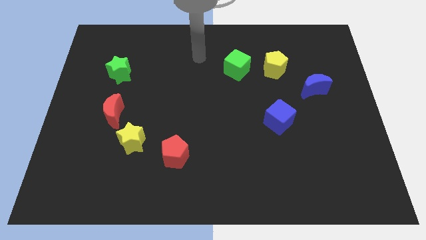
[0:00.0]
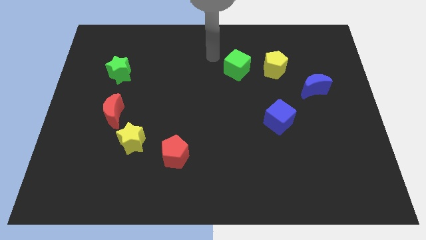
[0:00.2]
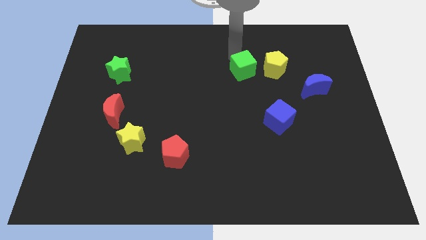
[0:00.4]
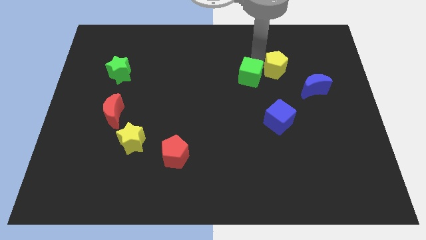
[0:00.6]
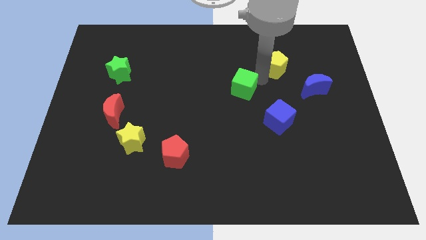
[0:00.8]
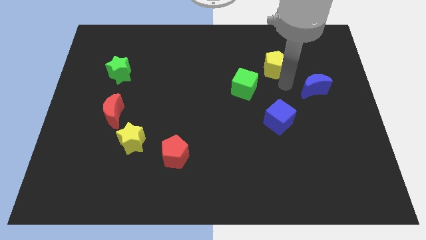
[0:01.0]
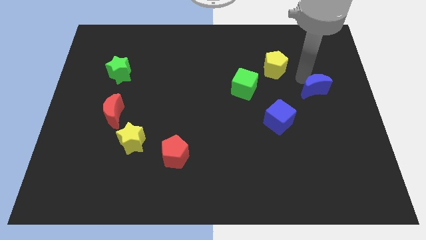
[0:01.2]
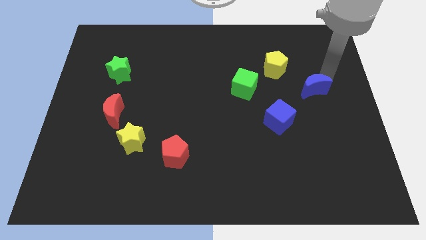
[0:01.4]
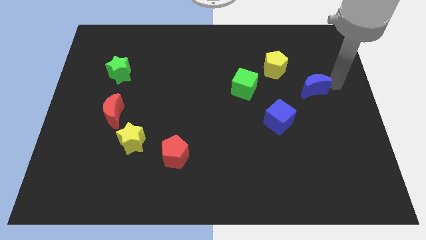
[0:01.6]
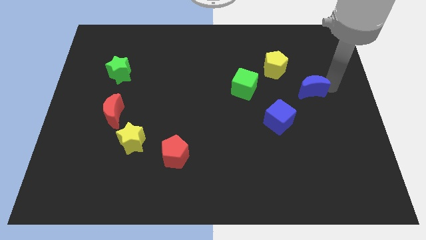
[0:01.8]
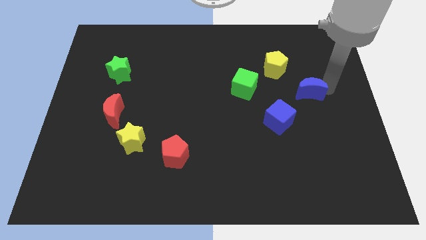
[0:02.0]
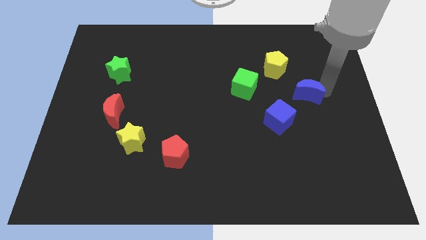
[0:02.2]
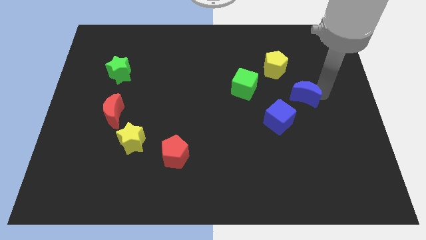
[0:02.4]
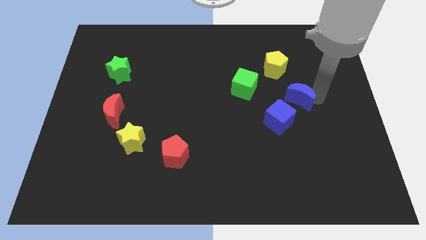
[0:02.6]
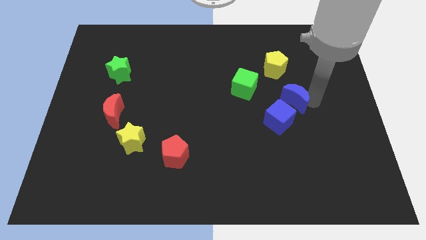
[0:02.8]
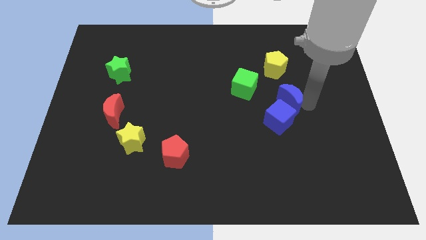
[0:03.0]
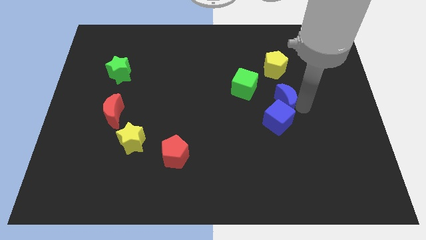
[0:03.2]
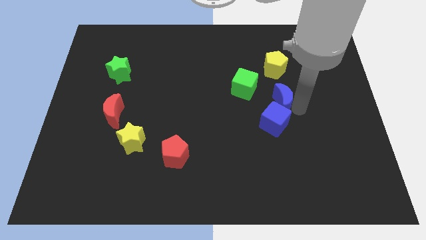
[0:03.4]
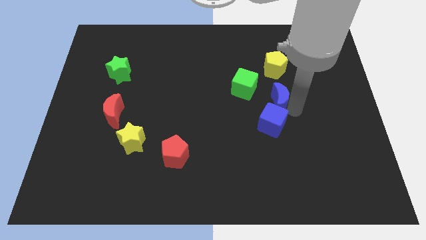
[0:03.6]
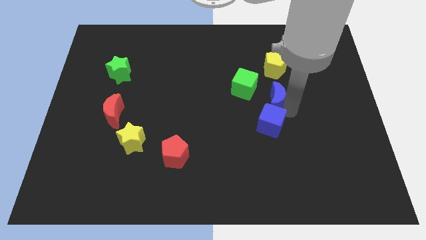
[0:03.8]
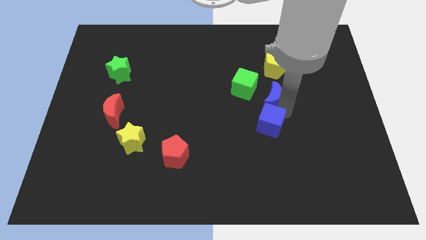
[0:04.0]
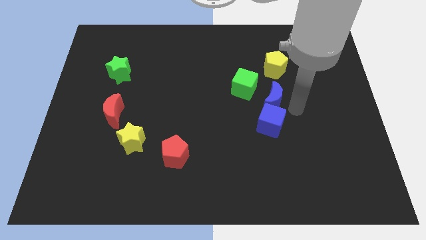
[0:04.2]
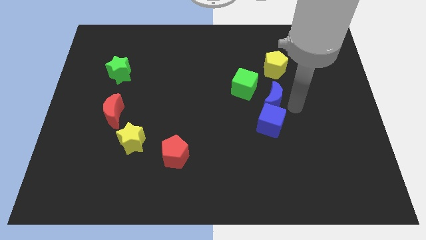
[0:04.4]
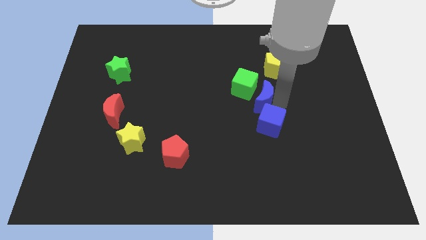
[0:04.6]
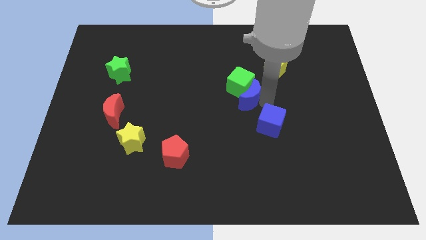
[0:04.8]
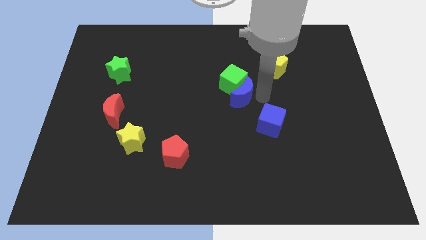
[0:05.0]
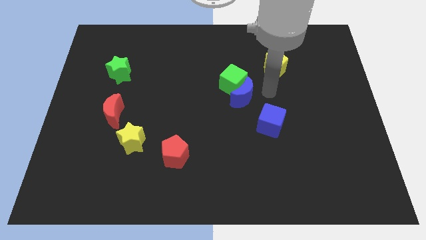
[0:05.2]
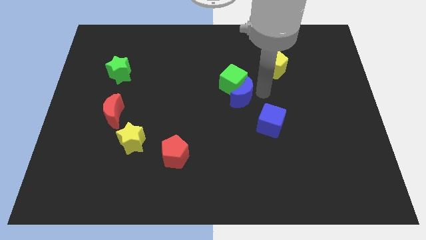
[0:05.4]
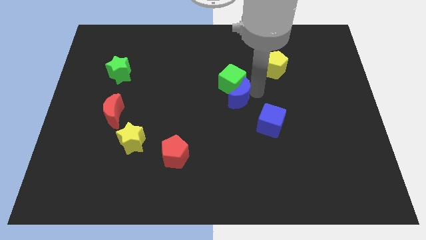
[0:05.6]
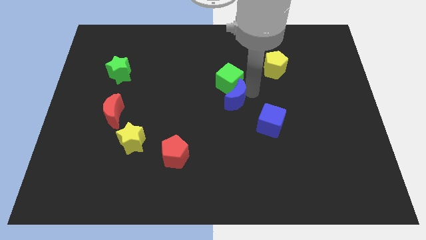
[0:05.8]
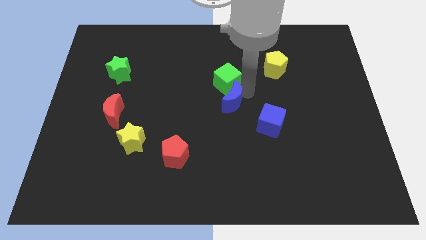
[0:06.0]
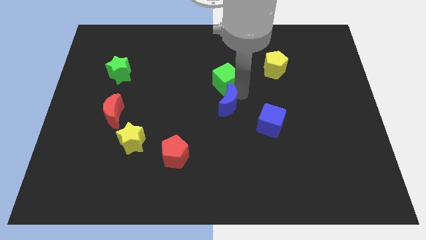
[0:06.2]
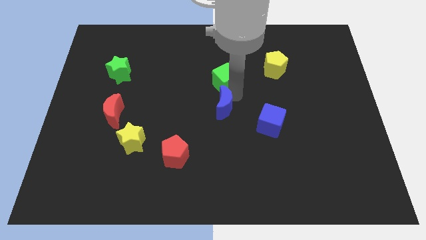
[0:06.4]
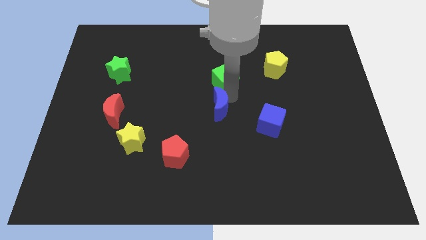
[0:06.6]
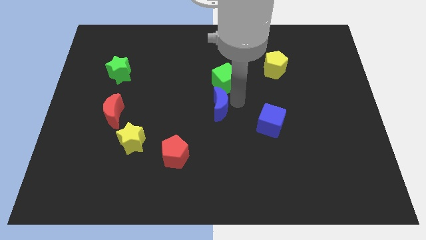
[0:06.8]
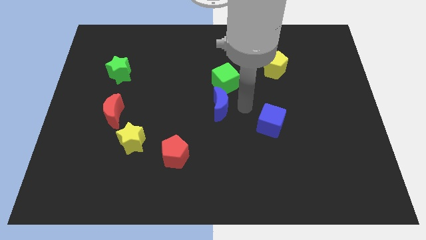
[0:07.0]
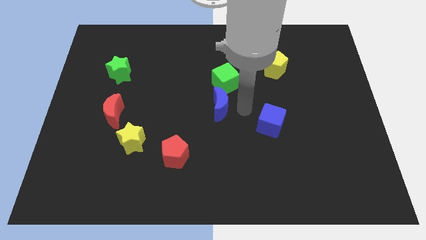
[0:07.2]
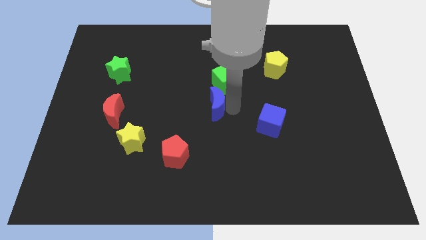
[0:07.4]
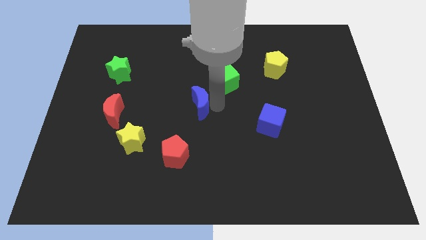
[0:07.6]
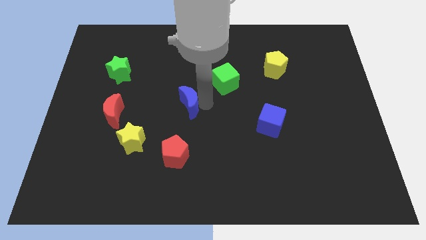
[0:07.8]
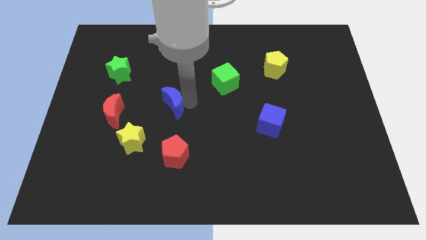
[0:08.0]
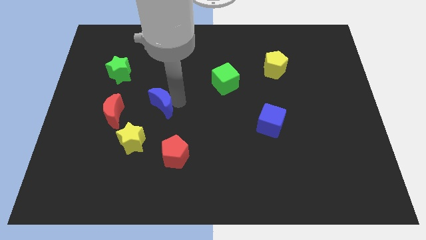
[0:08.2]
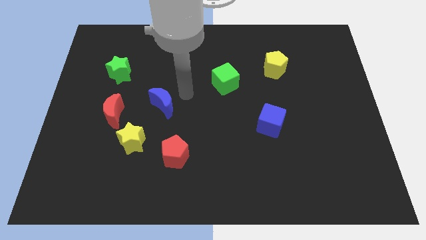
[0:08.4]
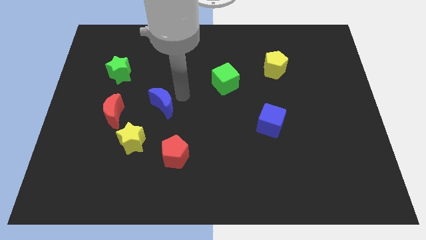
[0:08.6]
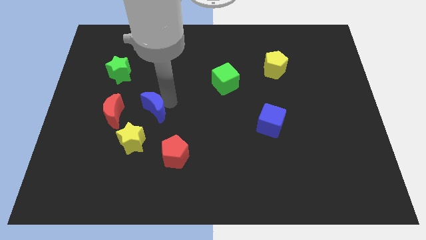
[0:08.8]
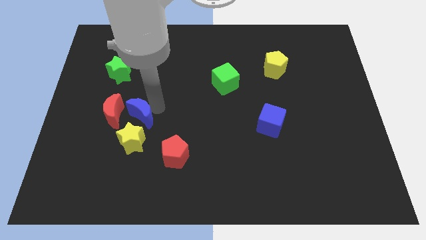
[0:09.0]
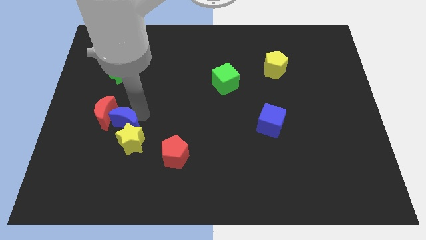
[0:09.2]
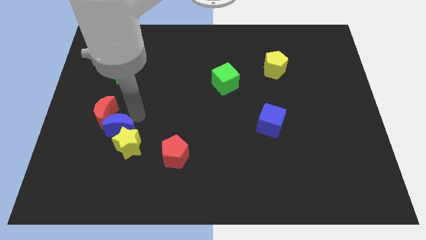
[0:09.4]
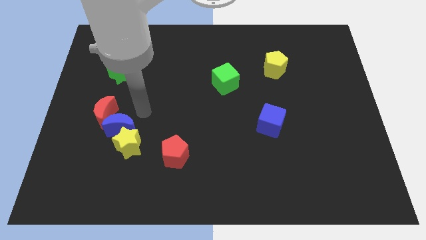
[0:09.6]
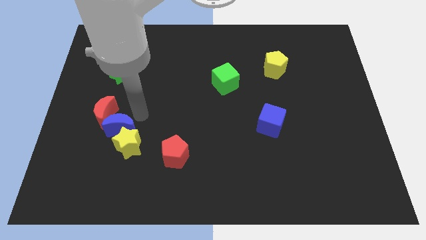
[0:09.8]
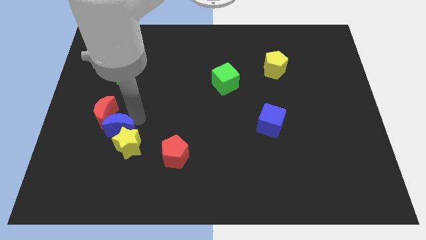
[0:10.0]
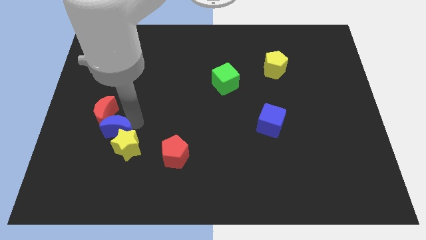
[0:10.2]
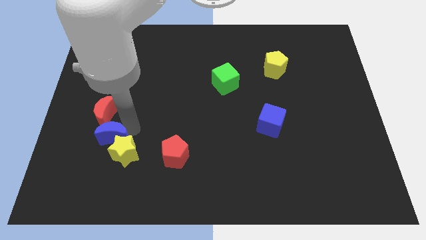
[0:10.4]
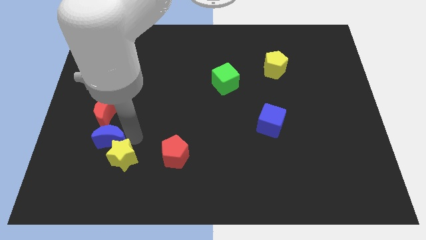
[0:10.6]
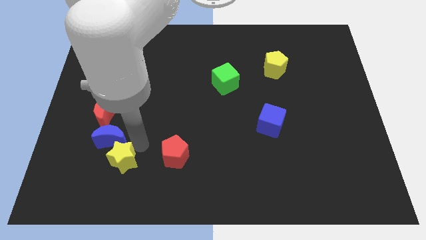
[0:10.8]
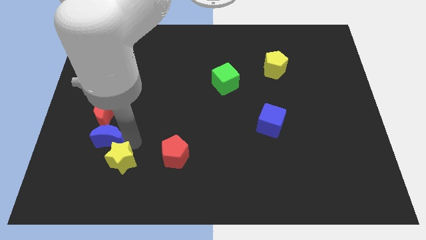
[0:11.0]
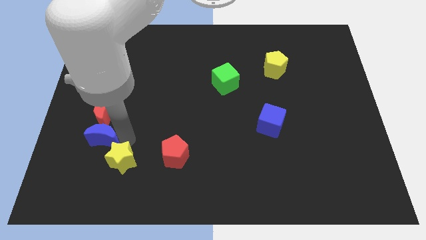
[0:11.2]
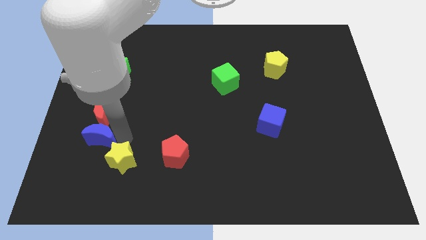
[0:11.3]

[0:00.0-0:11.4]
slide the blue moon to the bottom left side of the red moon

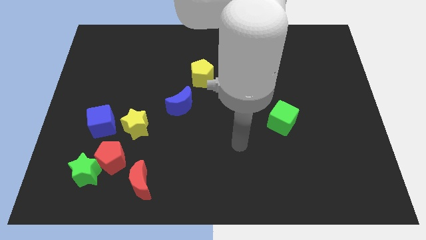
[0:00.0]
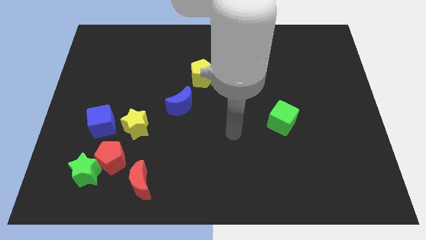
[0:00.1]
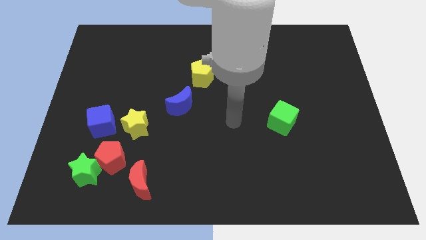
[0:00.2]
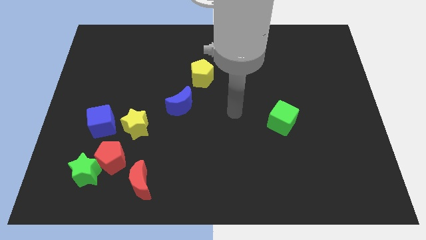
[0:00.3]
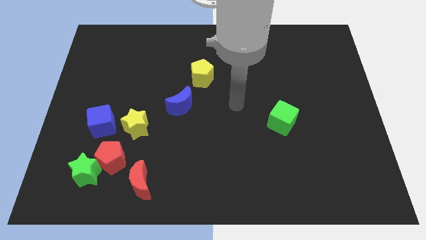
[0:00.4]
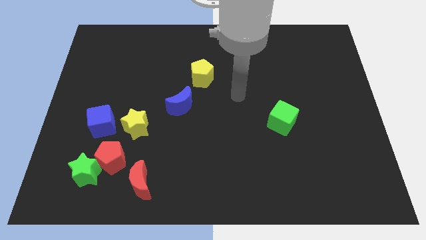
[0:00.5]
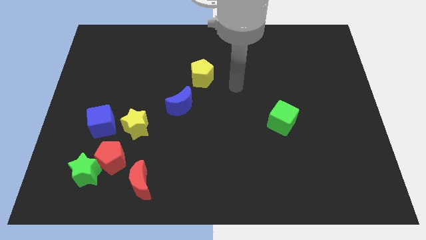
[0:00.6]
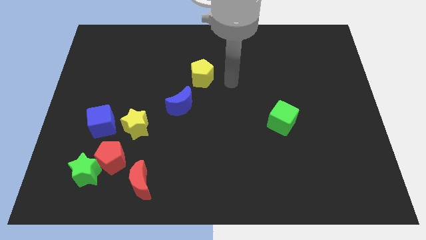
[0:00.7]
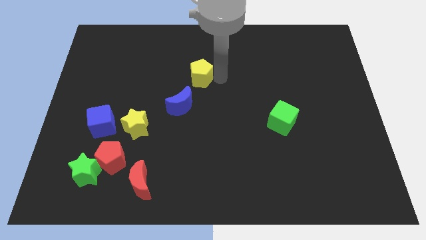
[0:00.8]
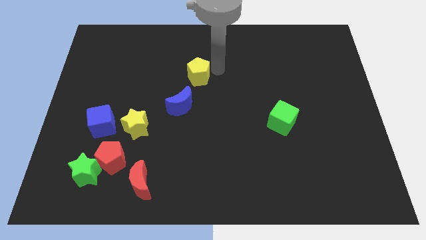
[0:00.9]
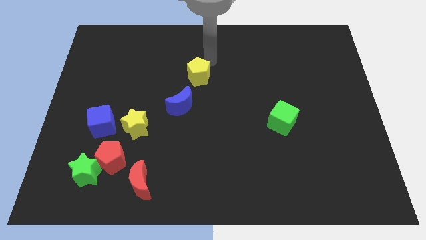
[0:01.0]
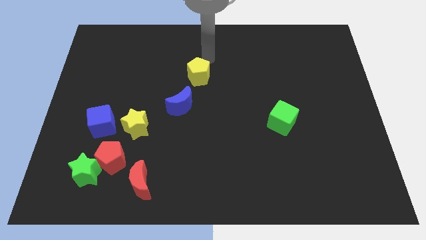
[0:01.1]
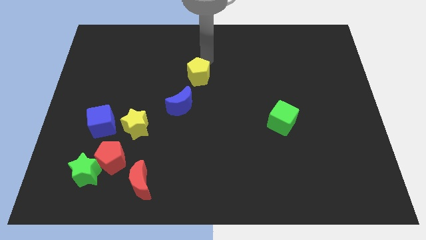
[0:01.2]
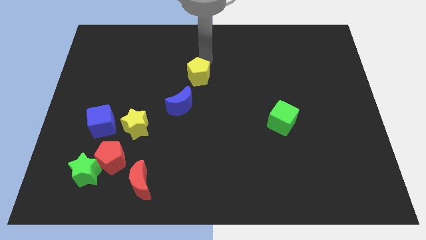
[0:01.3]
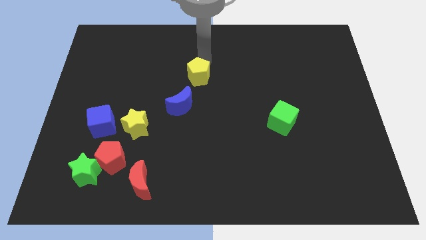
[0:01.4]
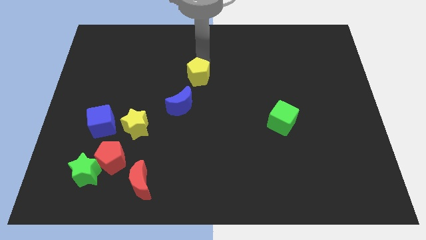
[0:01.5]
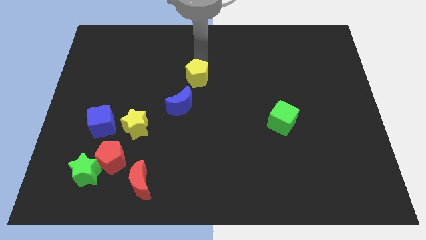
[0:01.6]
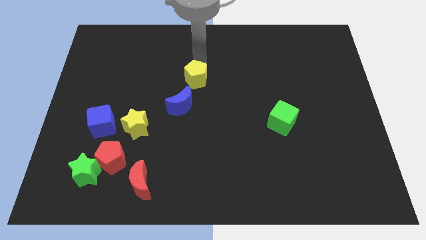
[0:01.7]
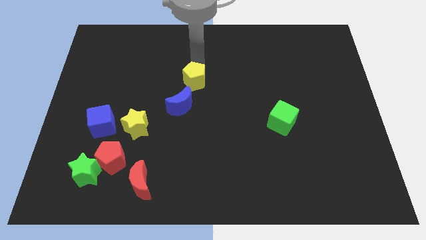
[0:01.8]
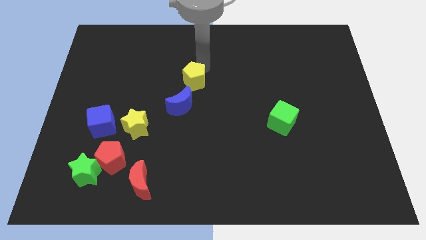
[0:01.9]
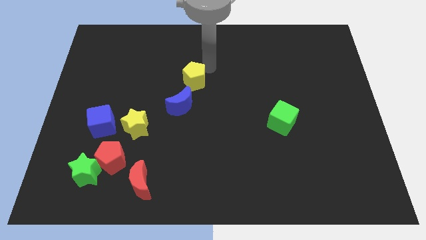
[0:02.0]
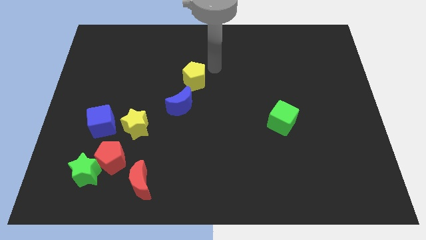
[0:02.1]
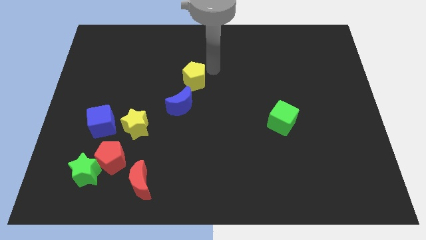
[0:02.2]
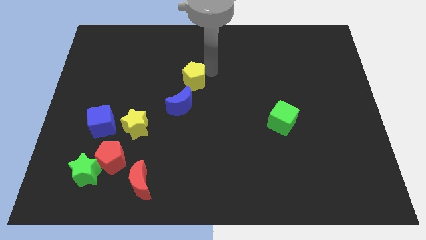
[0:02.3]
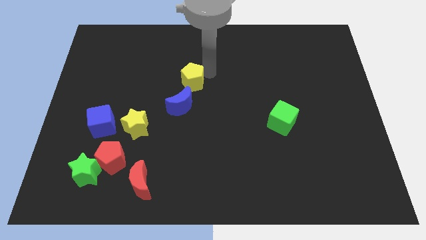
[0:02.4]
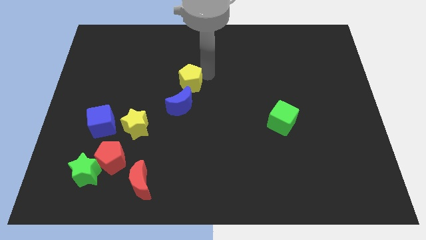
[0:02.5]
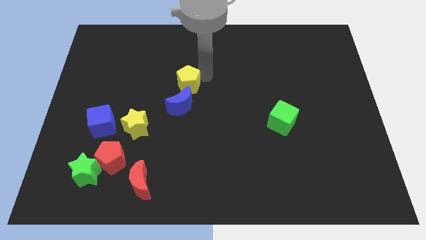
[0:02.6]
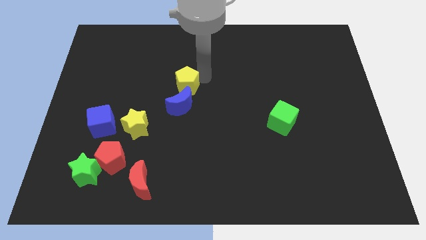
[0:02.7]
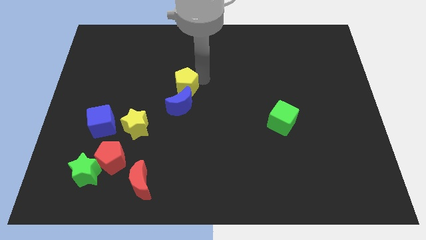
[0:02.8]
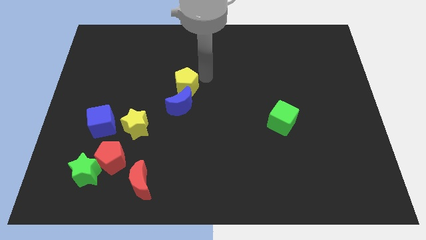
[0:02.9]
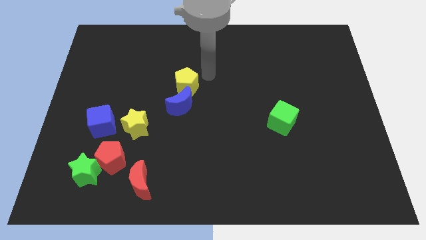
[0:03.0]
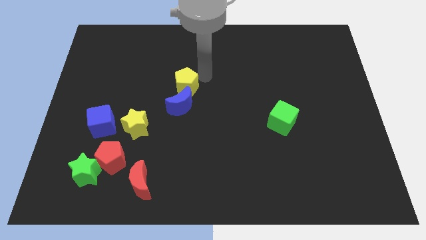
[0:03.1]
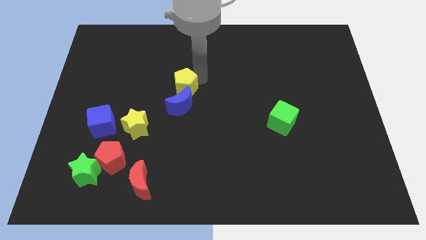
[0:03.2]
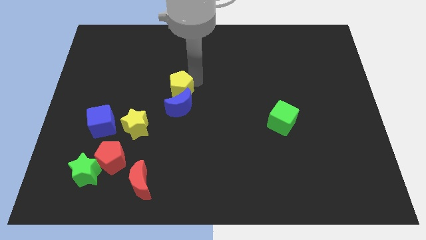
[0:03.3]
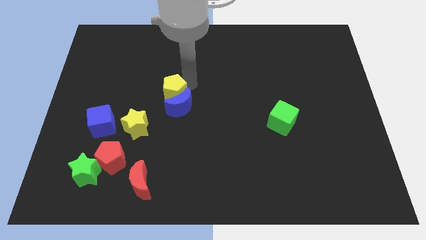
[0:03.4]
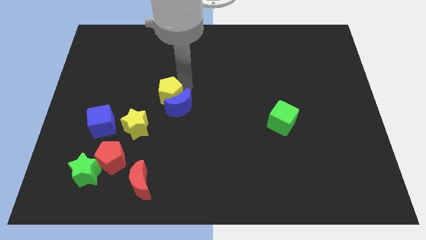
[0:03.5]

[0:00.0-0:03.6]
push the yellow pentagon just left of the blue moon
